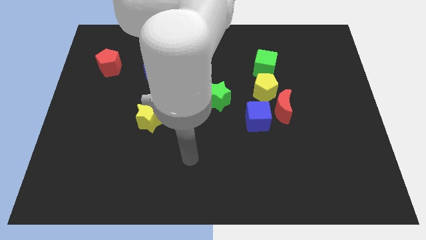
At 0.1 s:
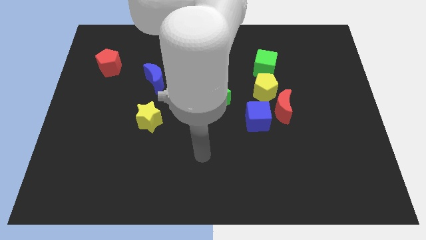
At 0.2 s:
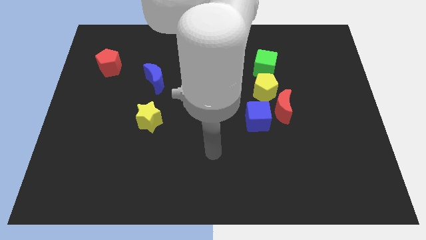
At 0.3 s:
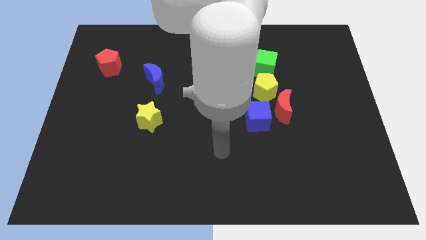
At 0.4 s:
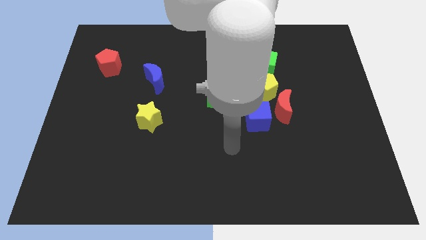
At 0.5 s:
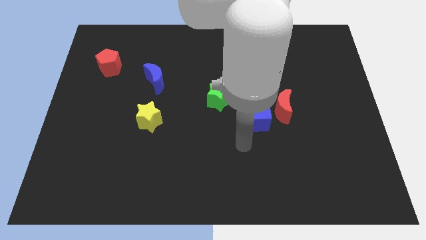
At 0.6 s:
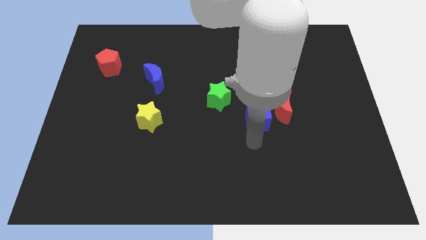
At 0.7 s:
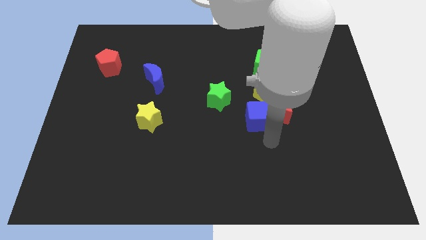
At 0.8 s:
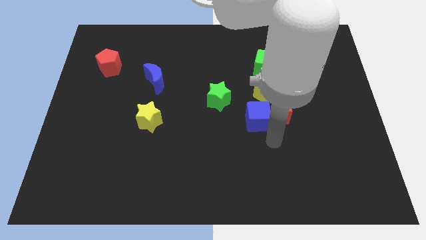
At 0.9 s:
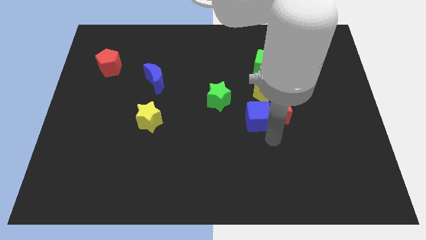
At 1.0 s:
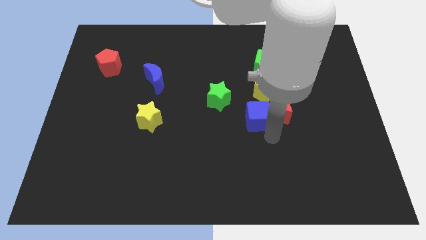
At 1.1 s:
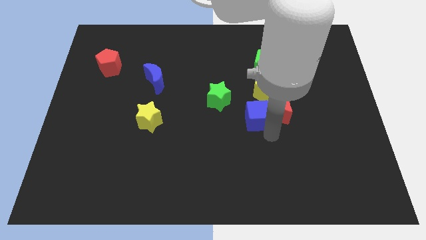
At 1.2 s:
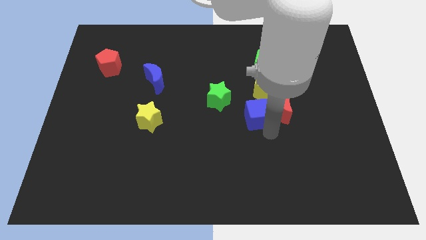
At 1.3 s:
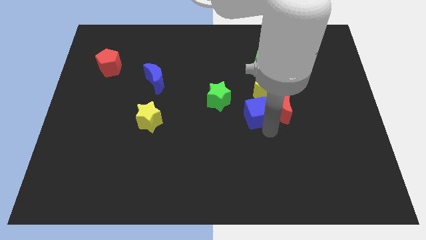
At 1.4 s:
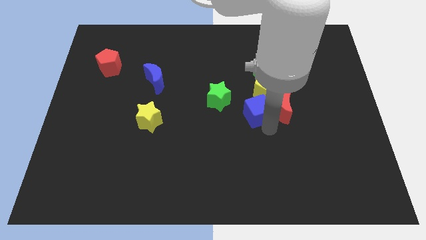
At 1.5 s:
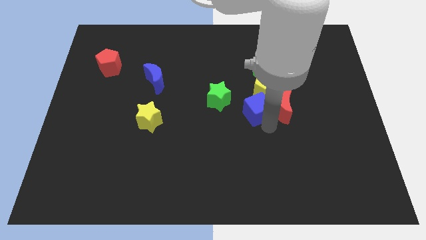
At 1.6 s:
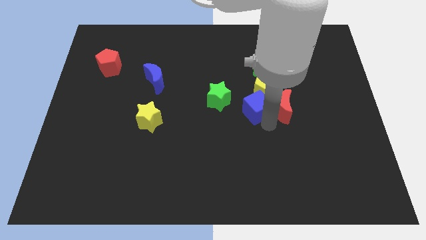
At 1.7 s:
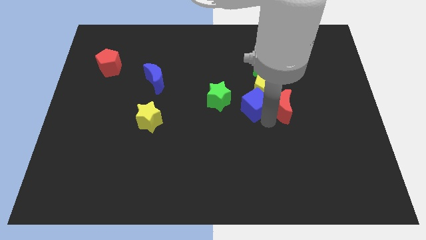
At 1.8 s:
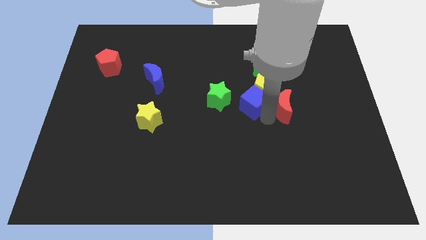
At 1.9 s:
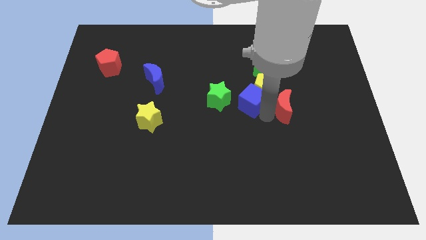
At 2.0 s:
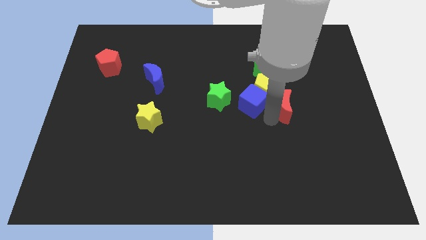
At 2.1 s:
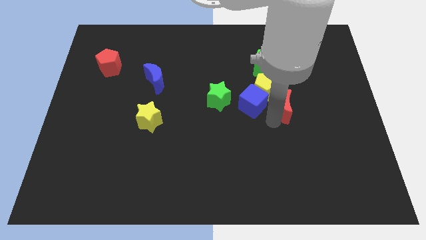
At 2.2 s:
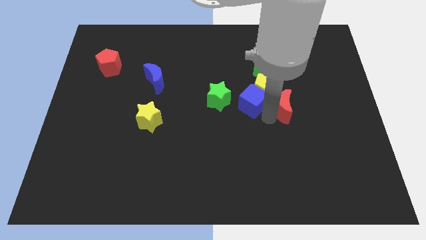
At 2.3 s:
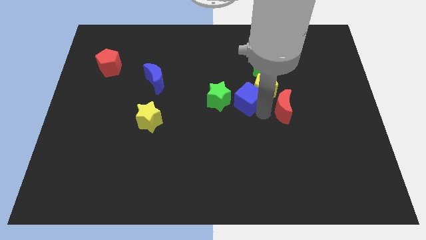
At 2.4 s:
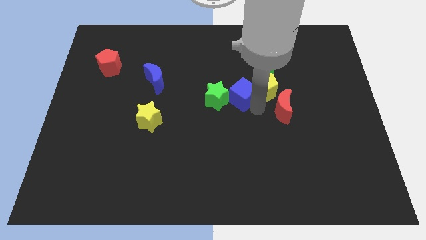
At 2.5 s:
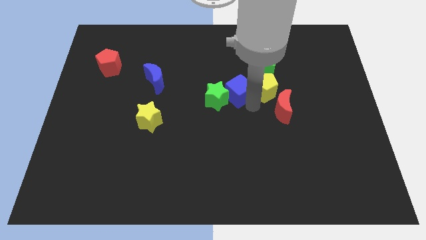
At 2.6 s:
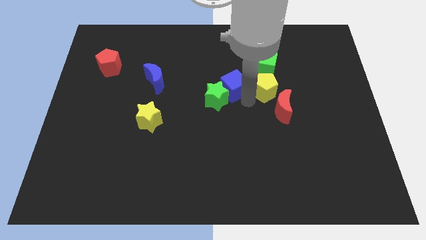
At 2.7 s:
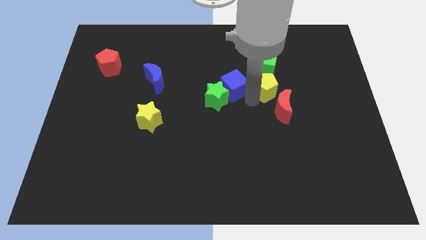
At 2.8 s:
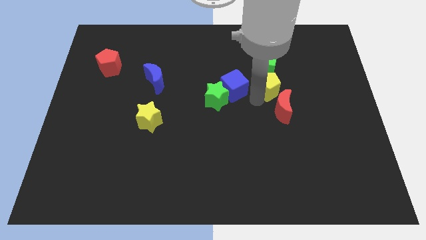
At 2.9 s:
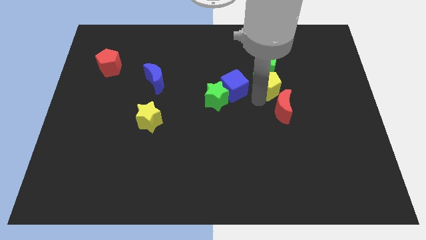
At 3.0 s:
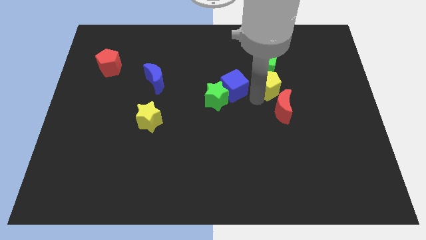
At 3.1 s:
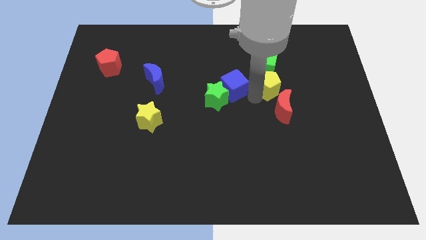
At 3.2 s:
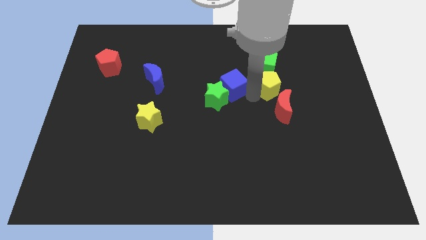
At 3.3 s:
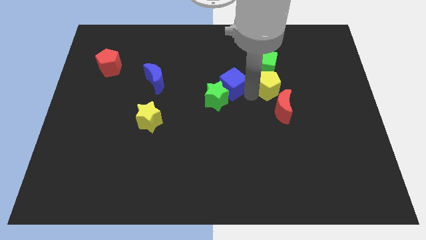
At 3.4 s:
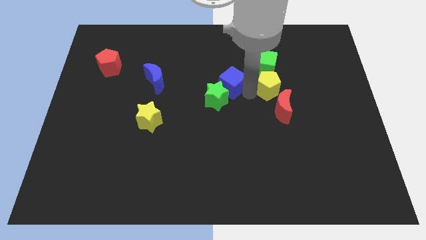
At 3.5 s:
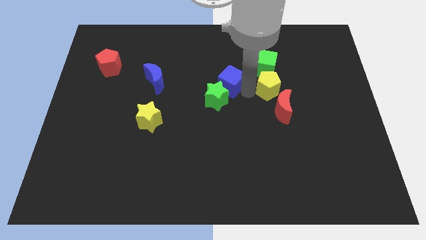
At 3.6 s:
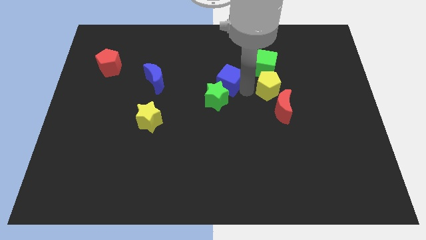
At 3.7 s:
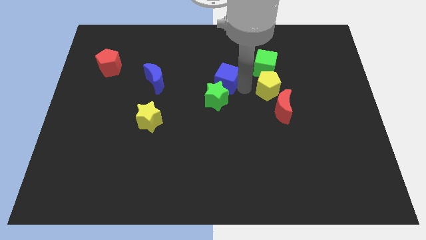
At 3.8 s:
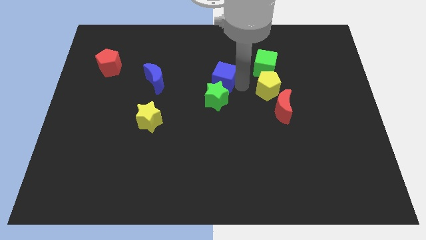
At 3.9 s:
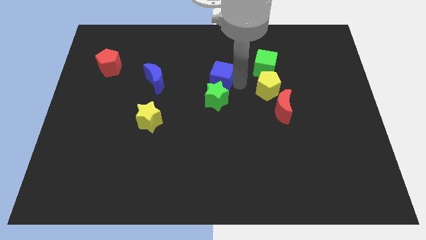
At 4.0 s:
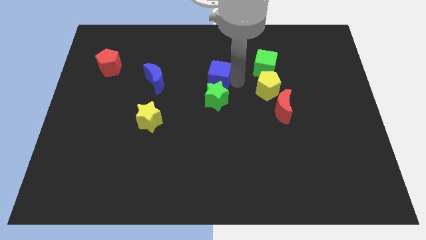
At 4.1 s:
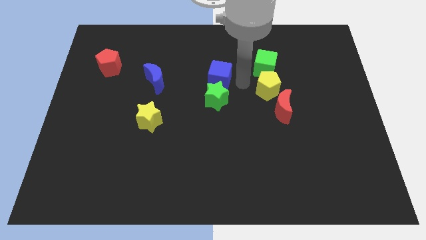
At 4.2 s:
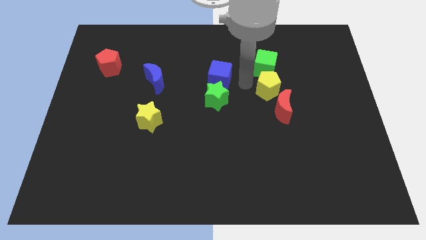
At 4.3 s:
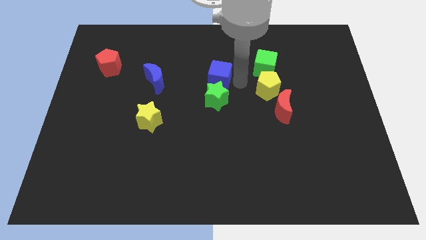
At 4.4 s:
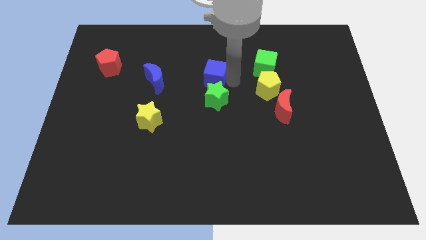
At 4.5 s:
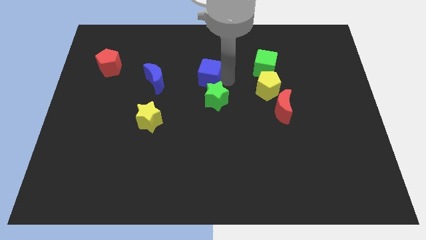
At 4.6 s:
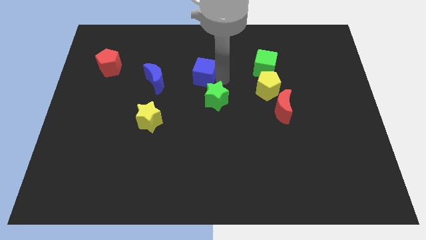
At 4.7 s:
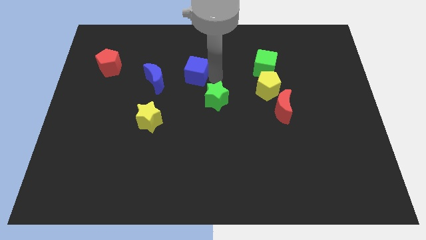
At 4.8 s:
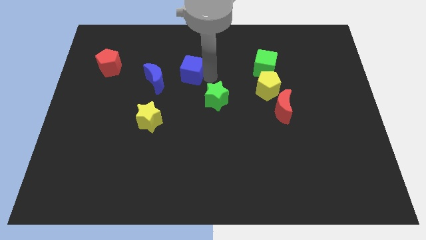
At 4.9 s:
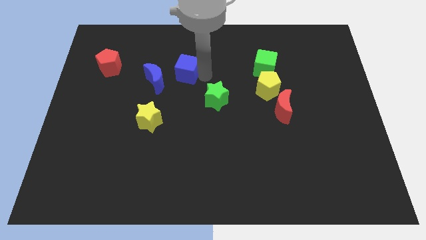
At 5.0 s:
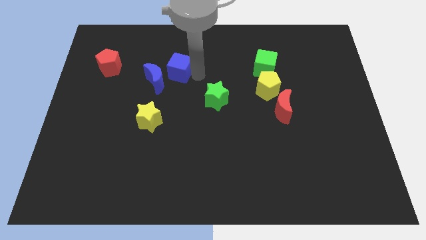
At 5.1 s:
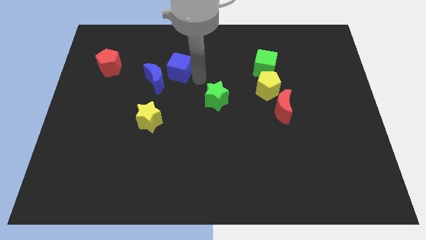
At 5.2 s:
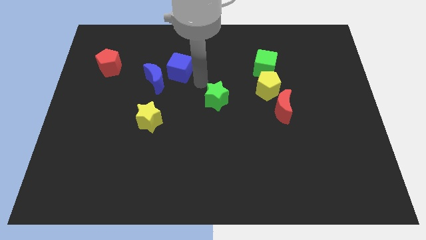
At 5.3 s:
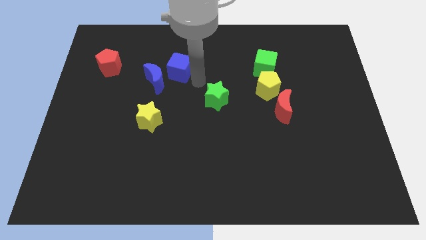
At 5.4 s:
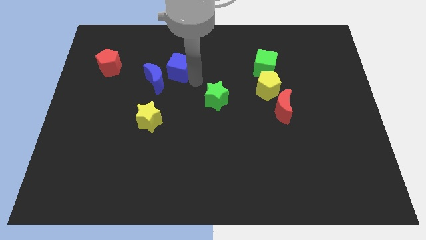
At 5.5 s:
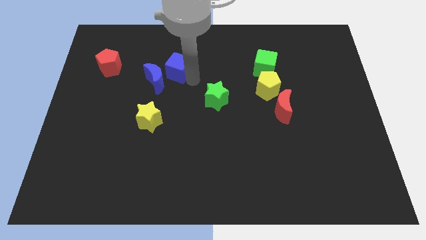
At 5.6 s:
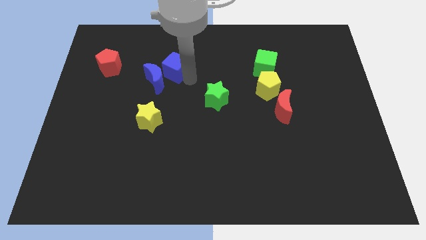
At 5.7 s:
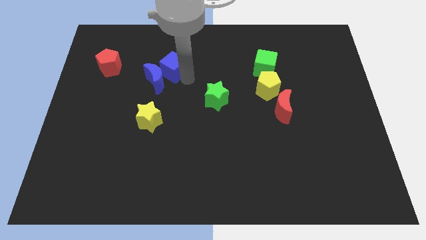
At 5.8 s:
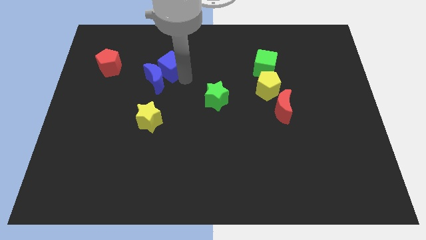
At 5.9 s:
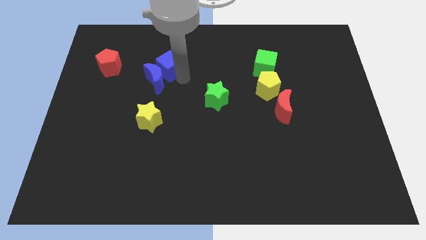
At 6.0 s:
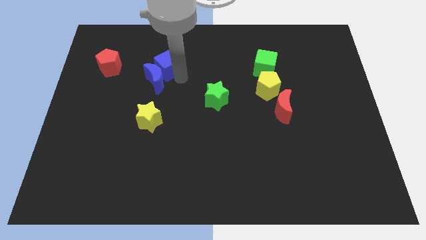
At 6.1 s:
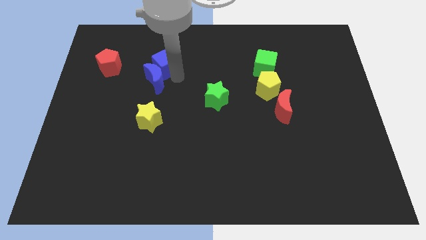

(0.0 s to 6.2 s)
push the blue cube to the top left of the blue moon

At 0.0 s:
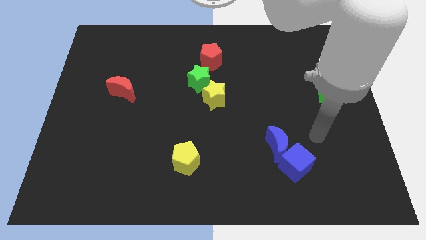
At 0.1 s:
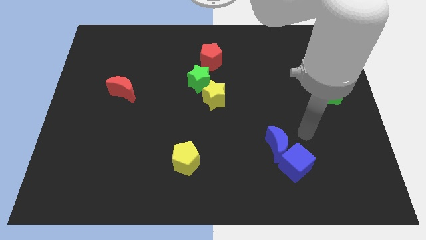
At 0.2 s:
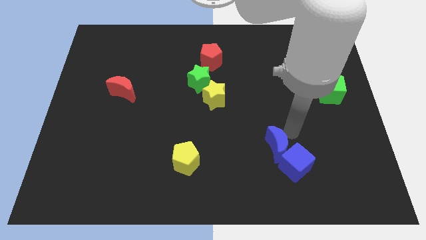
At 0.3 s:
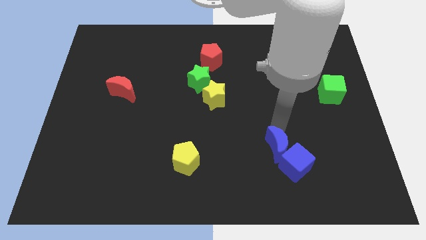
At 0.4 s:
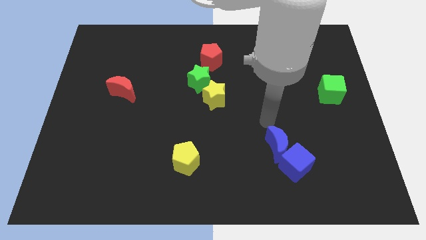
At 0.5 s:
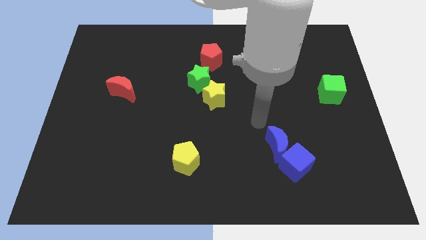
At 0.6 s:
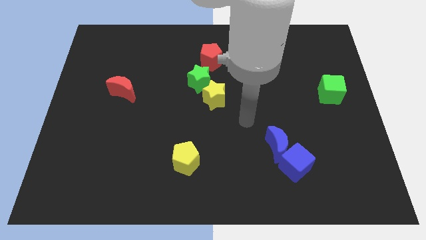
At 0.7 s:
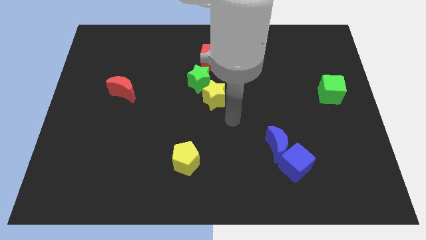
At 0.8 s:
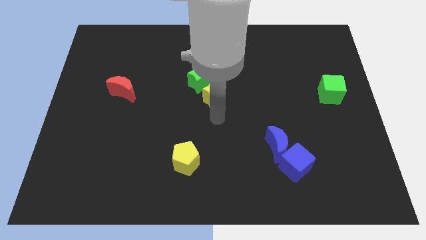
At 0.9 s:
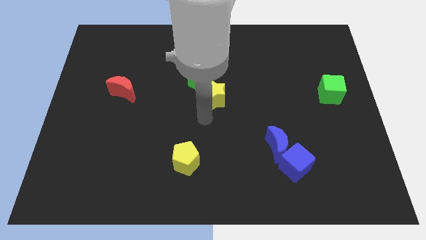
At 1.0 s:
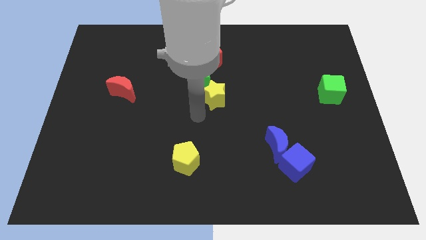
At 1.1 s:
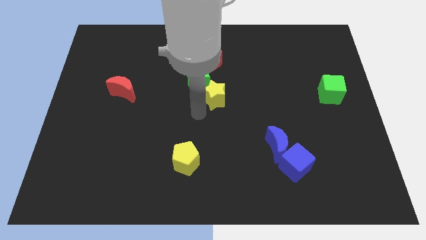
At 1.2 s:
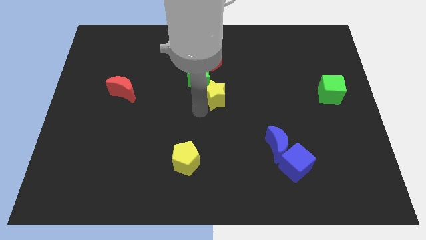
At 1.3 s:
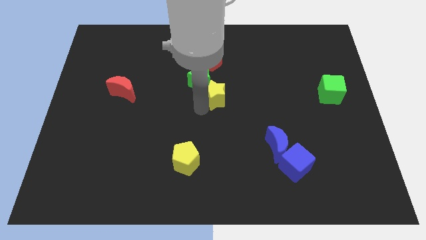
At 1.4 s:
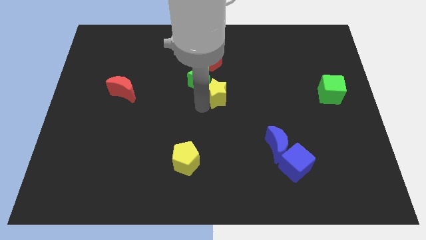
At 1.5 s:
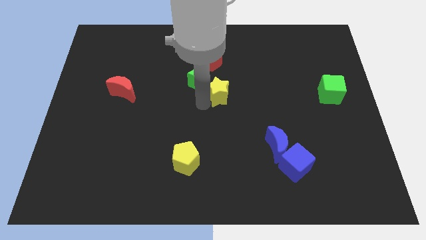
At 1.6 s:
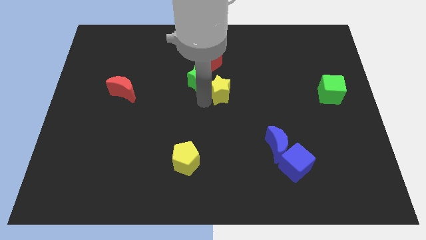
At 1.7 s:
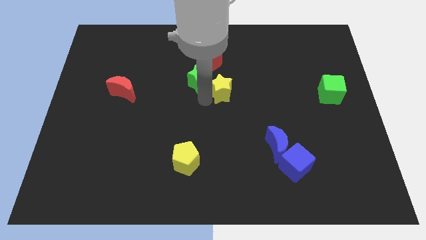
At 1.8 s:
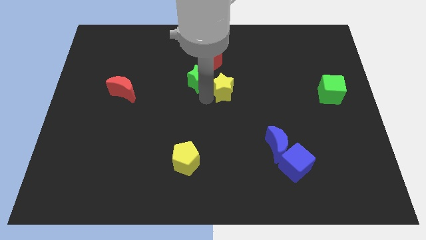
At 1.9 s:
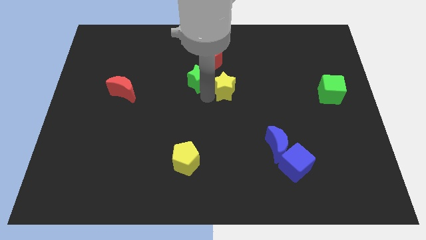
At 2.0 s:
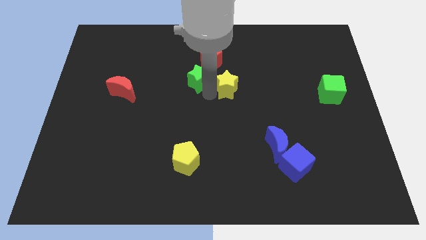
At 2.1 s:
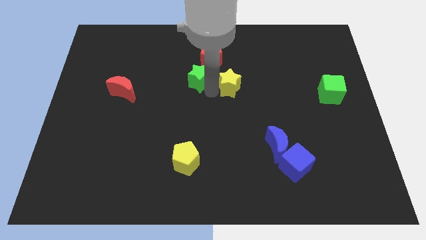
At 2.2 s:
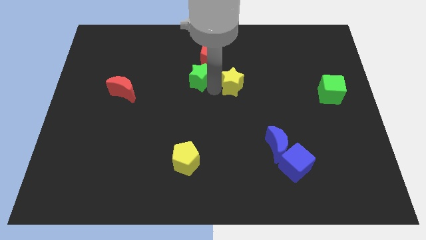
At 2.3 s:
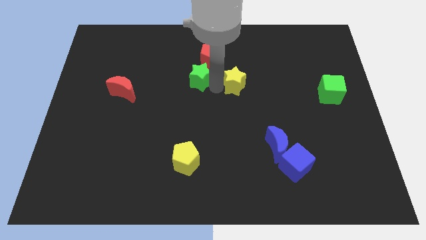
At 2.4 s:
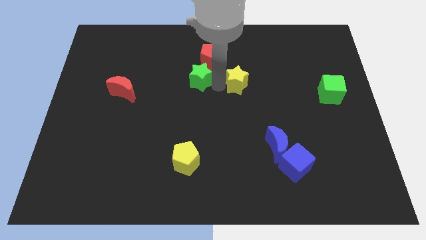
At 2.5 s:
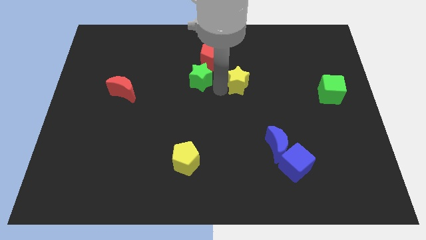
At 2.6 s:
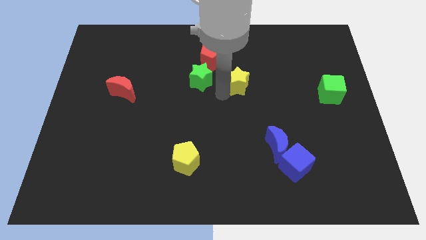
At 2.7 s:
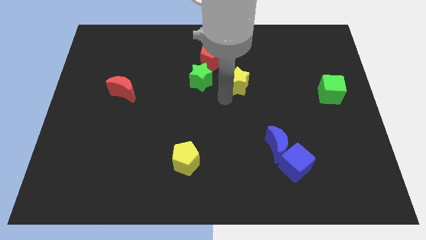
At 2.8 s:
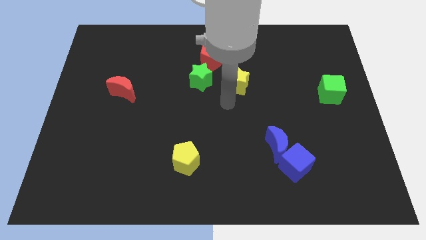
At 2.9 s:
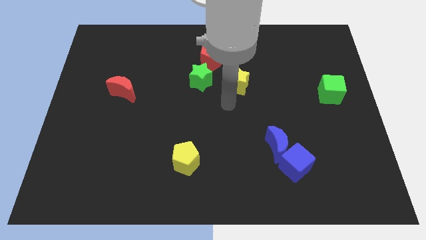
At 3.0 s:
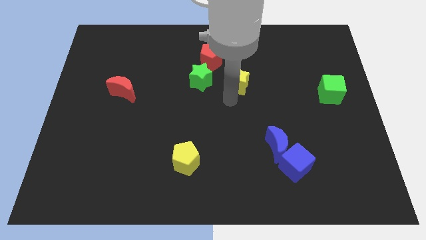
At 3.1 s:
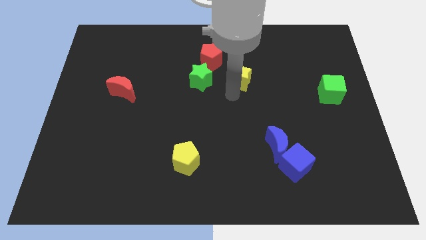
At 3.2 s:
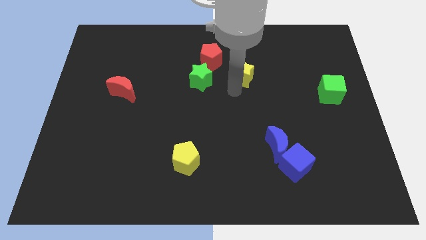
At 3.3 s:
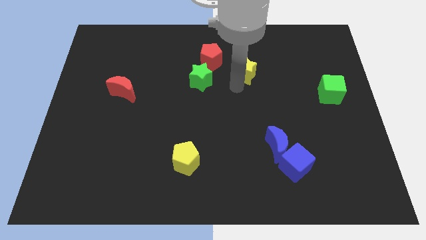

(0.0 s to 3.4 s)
slide the yellow star to the right of the red pentagon
